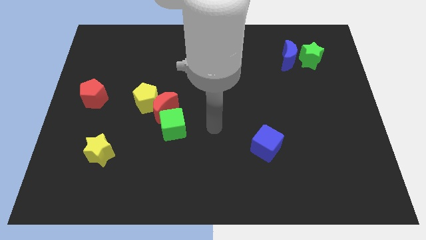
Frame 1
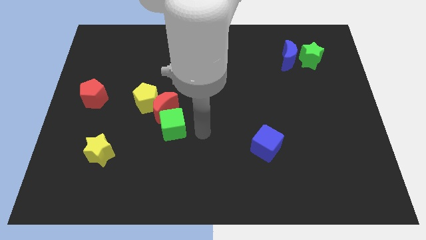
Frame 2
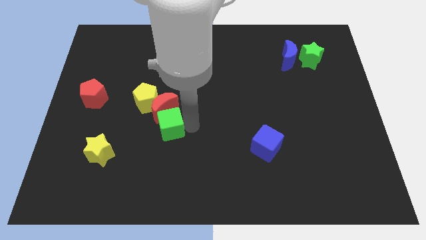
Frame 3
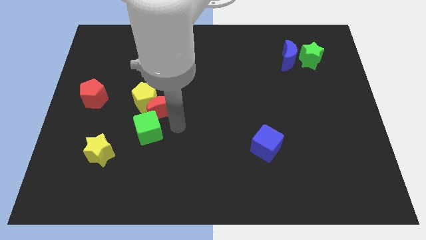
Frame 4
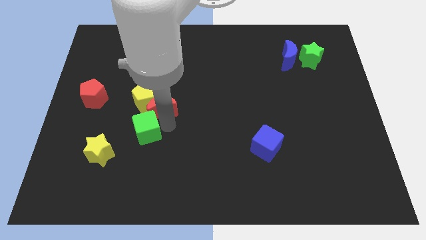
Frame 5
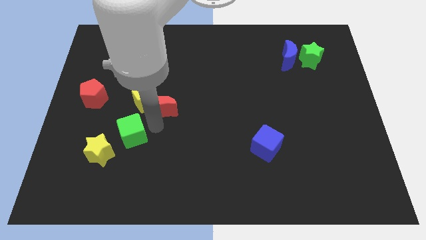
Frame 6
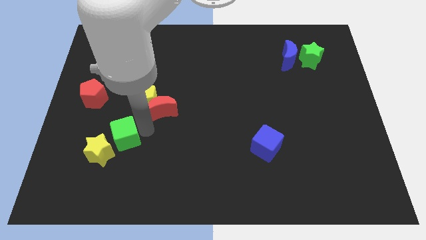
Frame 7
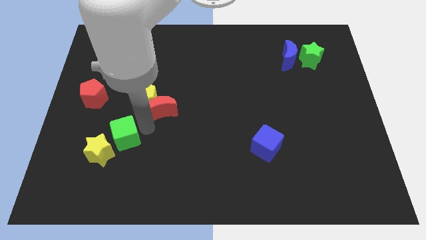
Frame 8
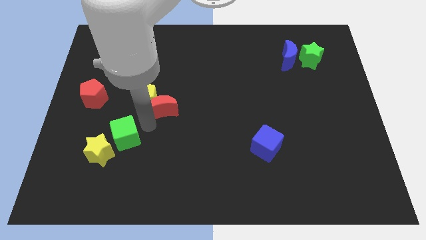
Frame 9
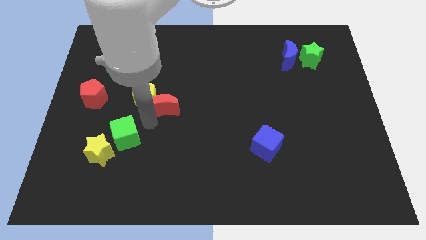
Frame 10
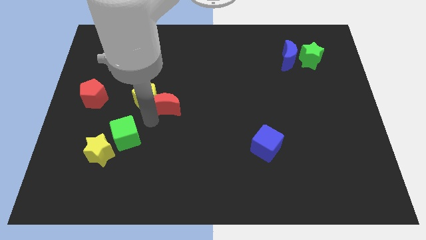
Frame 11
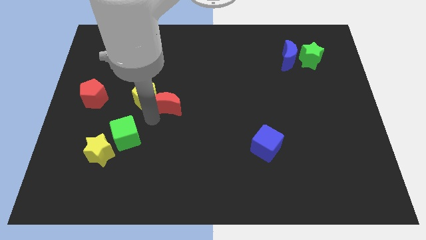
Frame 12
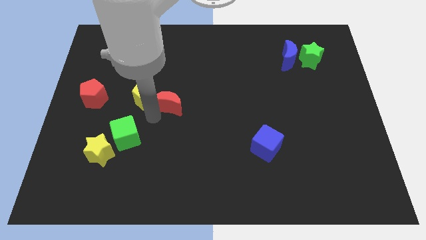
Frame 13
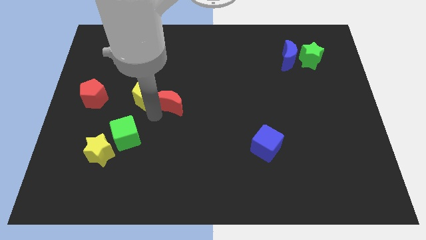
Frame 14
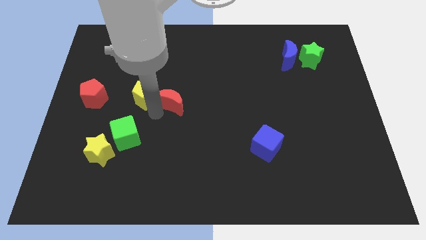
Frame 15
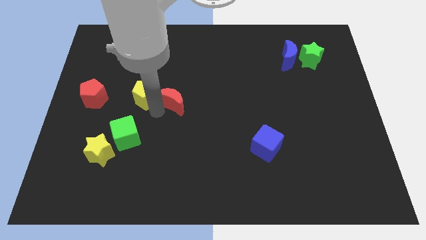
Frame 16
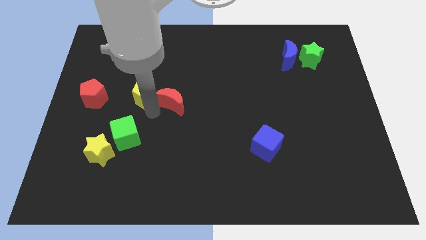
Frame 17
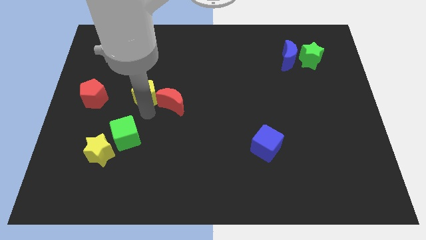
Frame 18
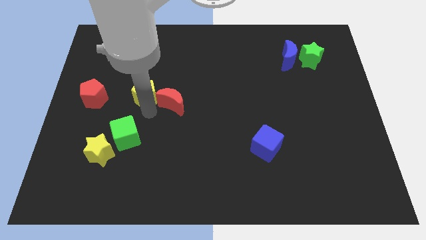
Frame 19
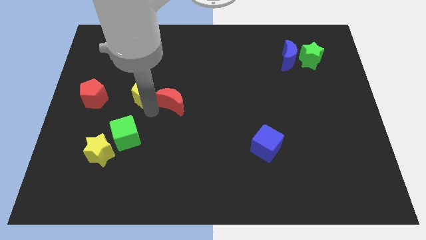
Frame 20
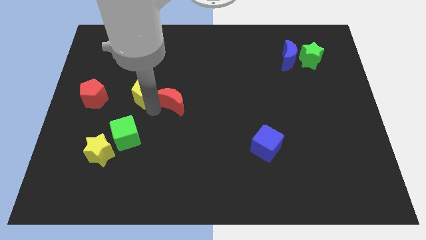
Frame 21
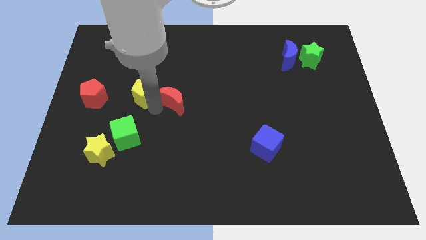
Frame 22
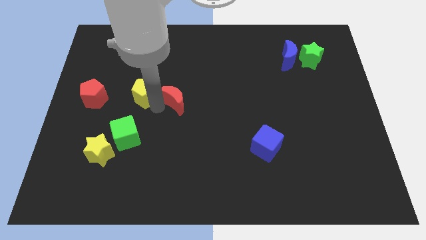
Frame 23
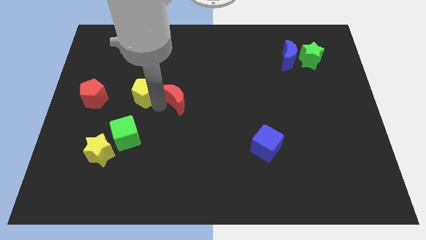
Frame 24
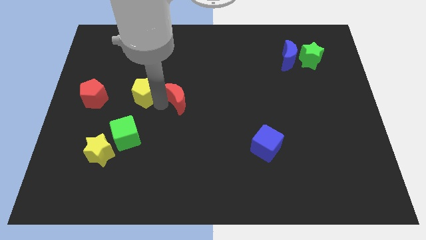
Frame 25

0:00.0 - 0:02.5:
pull the red moon apart from the yellow pentagon and green cube

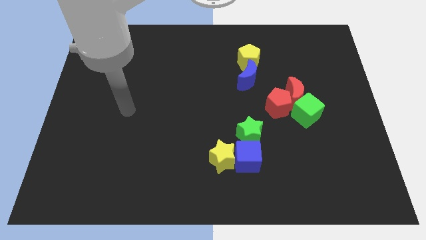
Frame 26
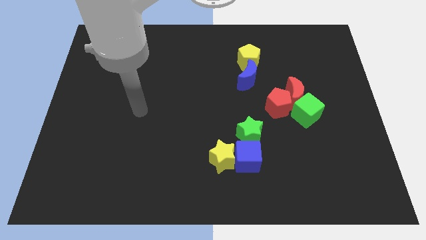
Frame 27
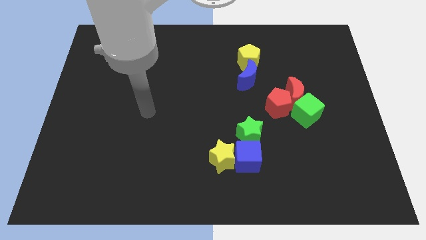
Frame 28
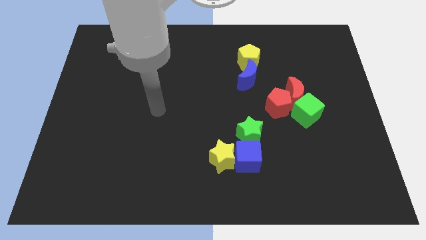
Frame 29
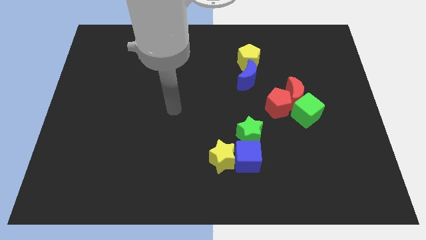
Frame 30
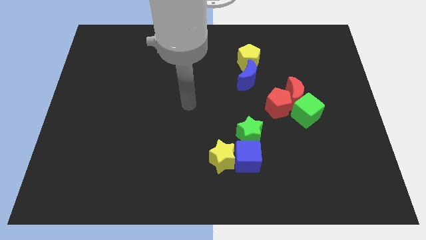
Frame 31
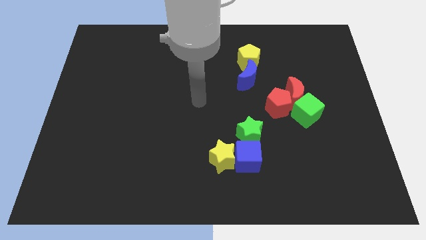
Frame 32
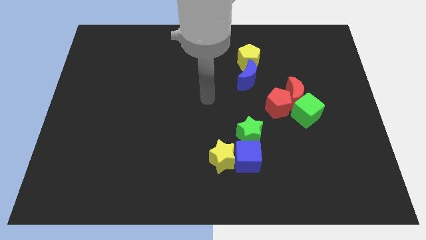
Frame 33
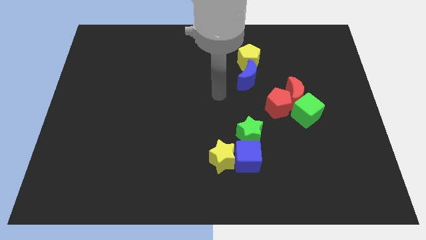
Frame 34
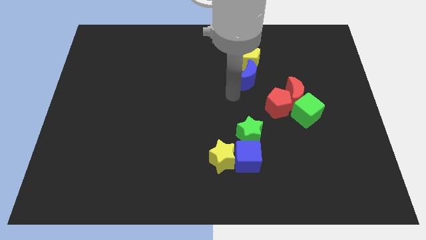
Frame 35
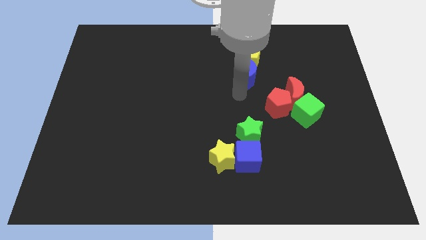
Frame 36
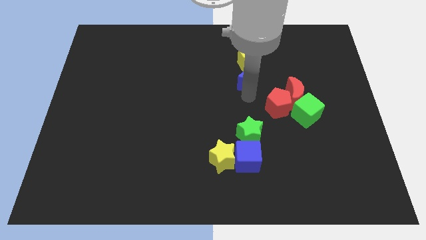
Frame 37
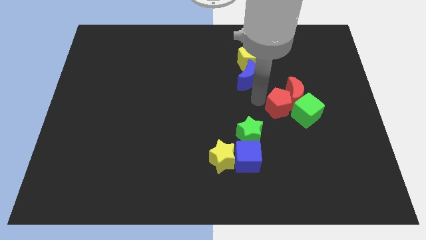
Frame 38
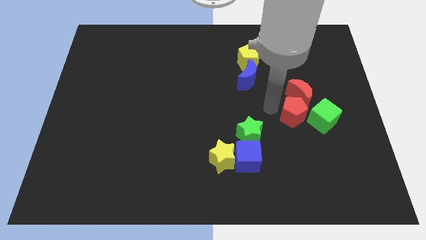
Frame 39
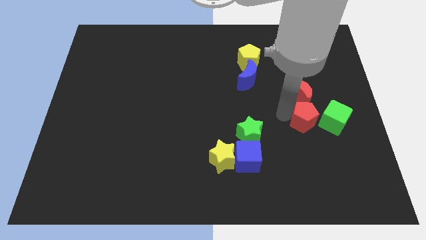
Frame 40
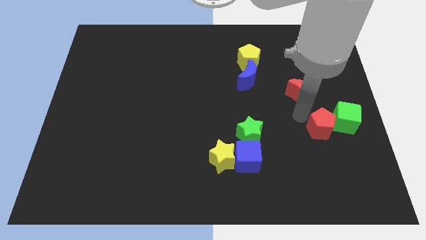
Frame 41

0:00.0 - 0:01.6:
pull the red moon apart from the red pentagon and green cube

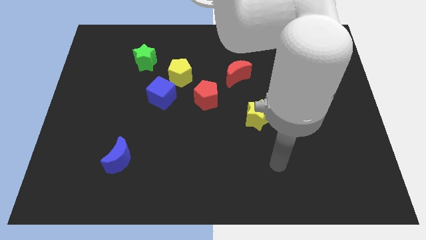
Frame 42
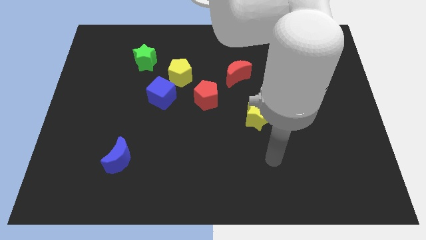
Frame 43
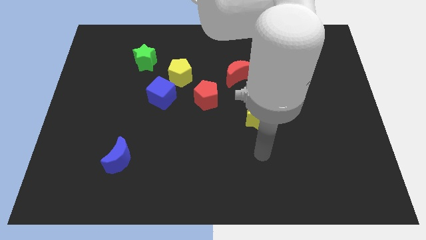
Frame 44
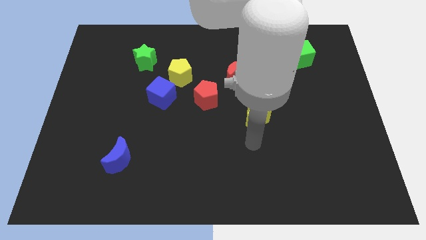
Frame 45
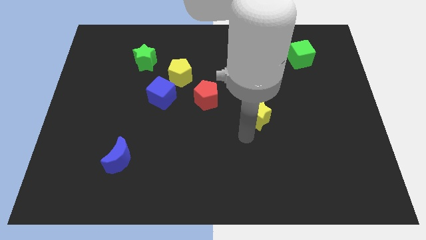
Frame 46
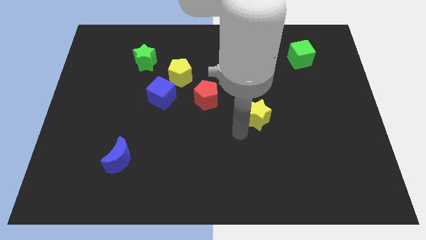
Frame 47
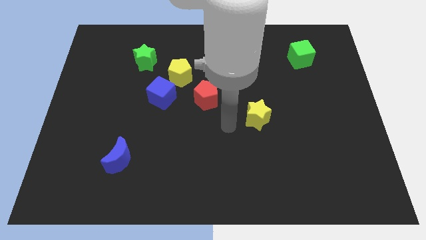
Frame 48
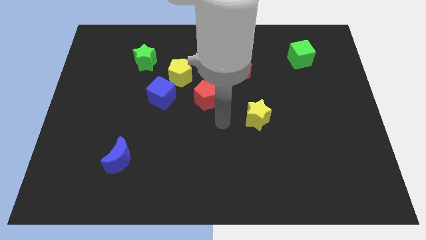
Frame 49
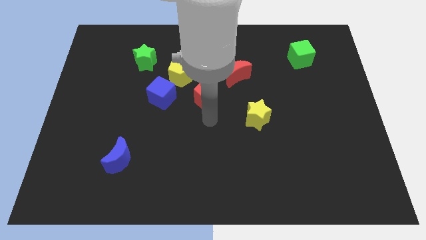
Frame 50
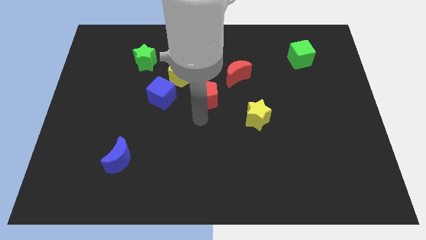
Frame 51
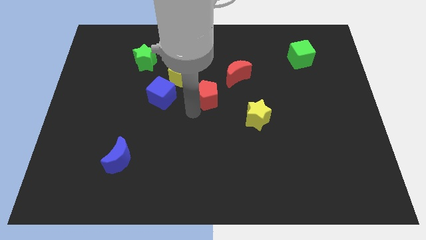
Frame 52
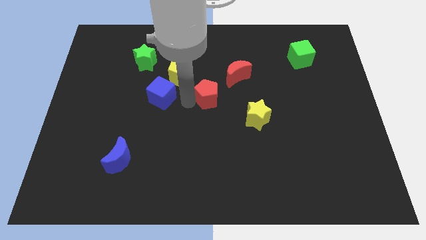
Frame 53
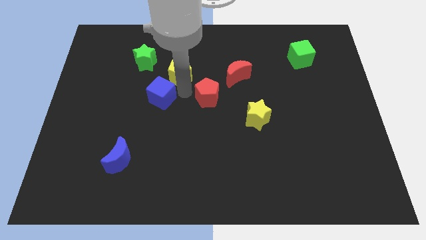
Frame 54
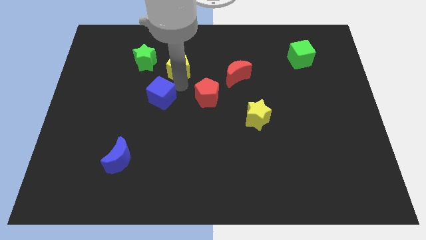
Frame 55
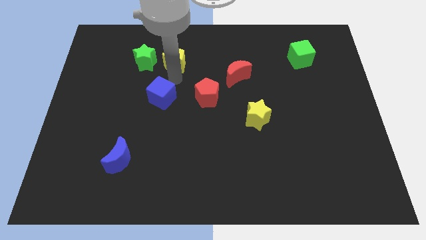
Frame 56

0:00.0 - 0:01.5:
separate the blue cube from the yellow pentagon

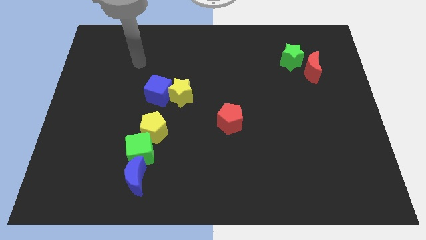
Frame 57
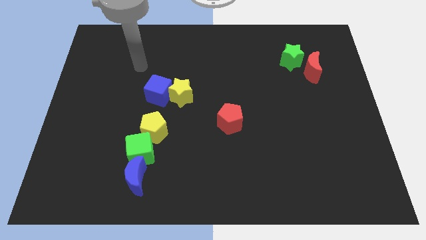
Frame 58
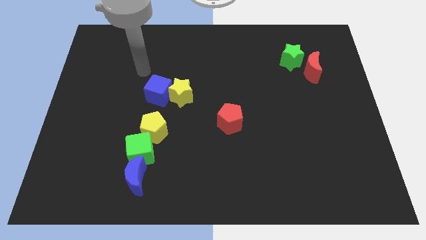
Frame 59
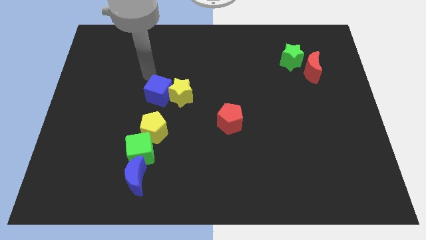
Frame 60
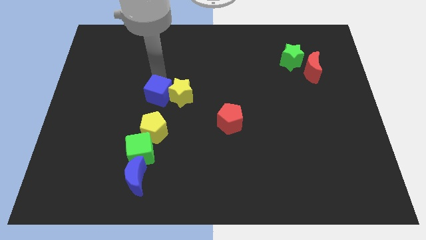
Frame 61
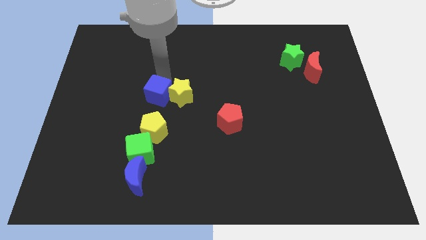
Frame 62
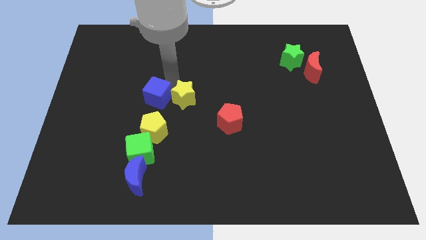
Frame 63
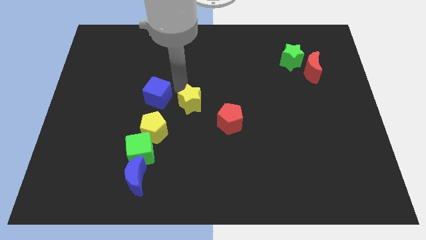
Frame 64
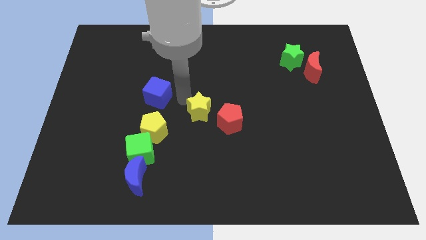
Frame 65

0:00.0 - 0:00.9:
pull the blue cube apart from the yellow star

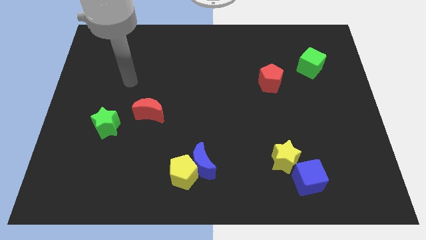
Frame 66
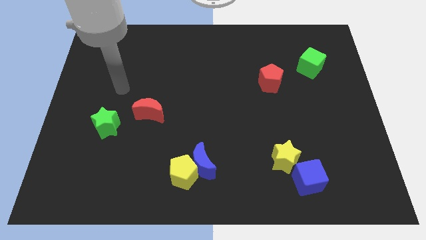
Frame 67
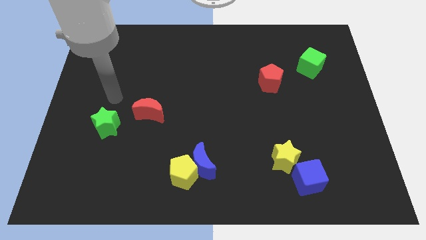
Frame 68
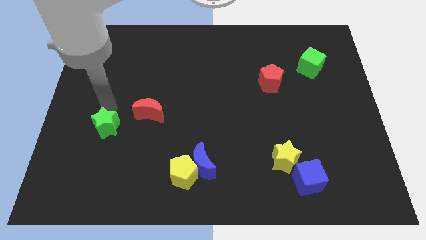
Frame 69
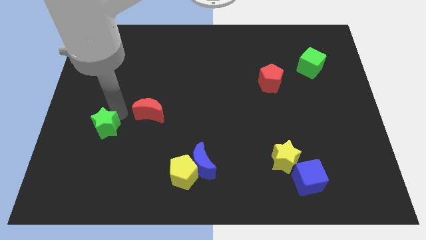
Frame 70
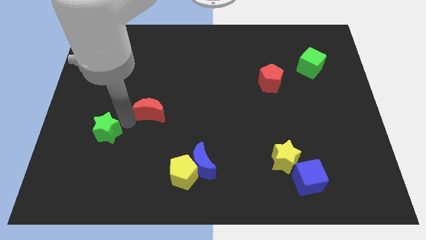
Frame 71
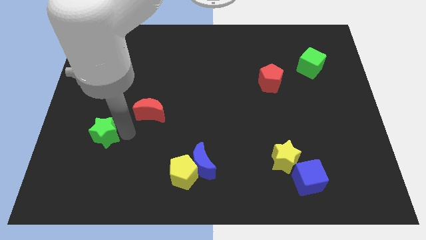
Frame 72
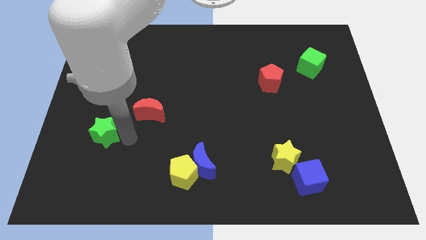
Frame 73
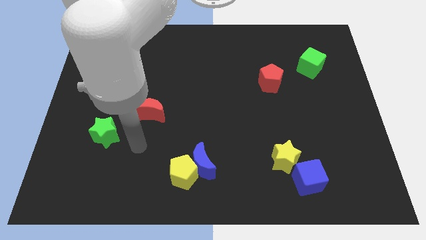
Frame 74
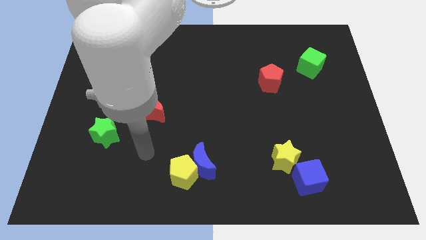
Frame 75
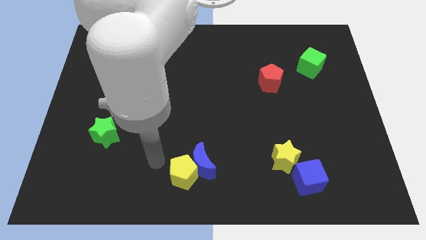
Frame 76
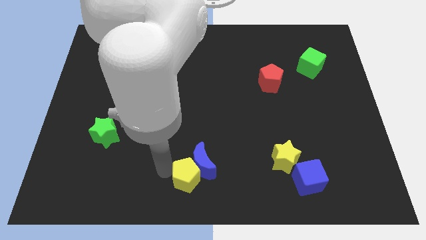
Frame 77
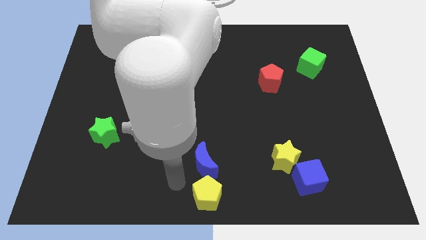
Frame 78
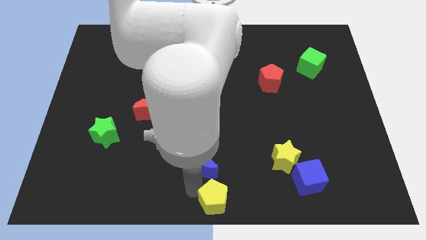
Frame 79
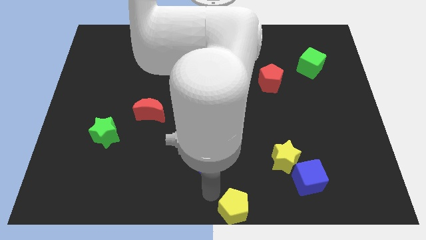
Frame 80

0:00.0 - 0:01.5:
move the blue moon away from the yellow pentagon

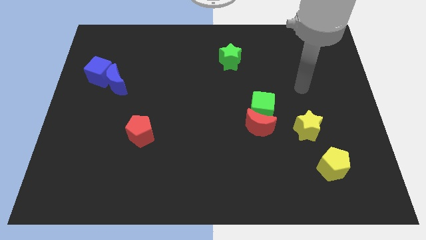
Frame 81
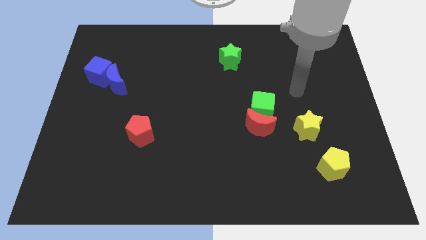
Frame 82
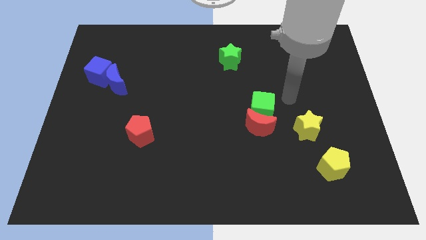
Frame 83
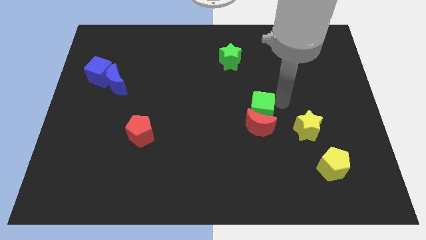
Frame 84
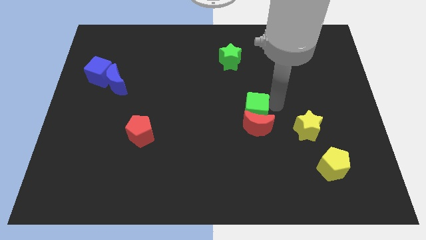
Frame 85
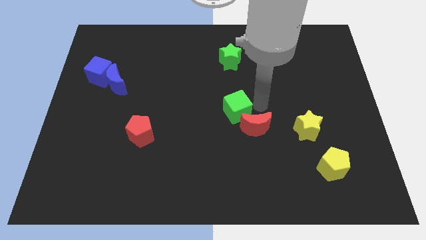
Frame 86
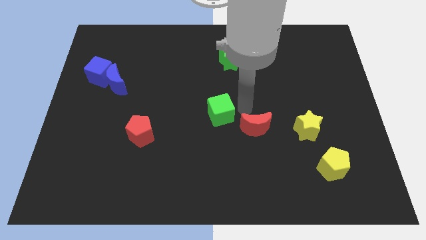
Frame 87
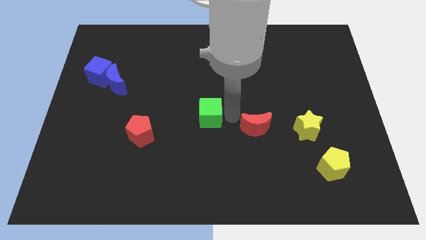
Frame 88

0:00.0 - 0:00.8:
pull the red moon apart from the green cube

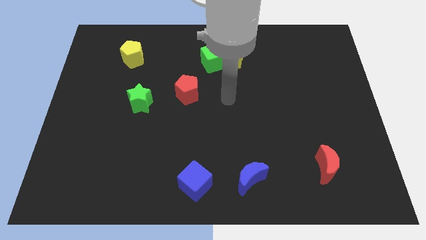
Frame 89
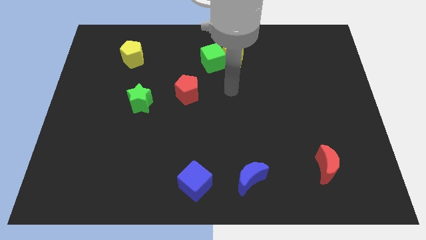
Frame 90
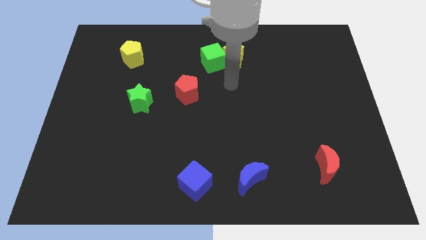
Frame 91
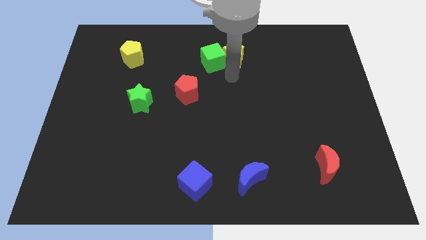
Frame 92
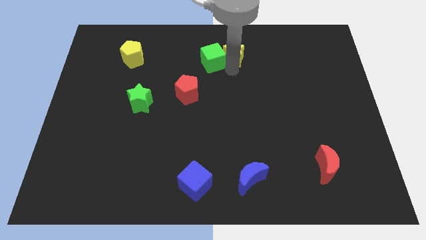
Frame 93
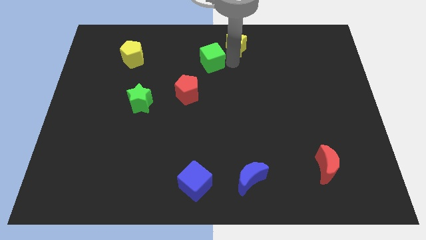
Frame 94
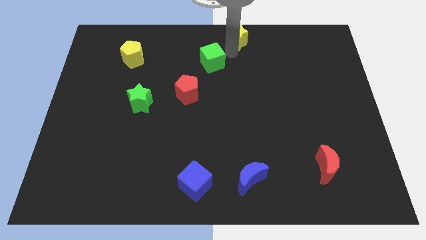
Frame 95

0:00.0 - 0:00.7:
pull the green cube apart from the yellow star
